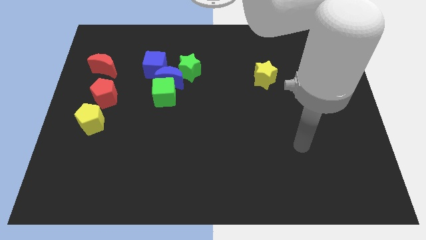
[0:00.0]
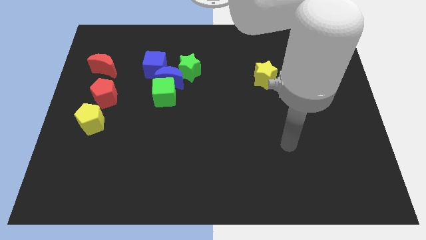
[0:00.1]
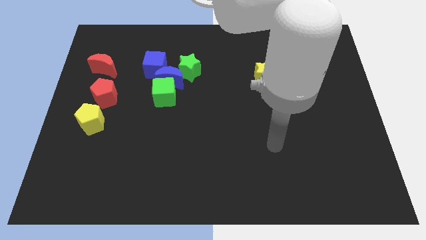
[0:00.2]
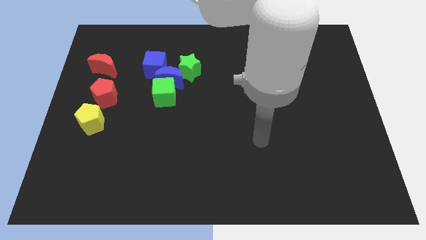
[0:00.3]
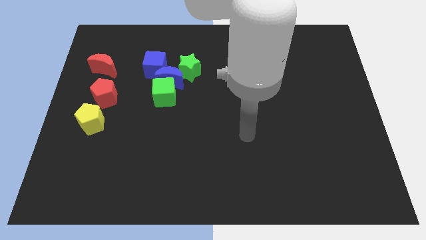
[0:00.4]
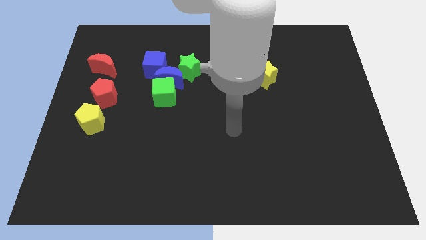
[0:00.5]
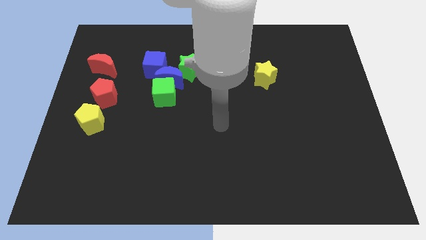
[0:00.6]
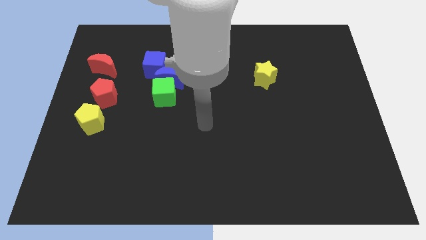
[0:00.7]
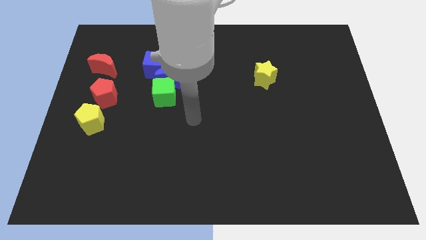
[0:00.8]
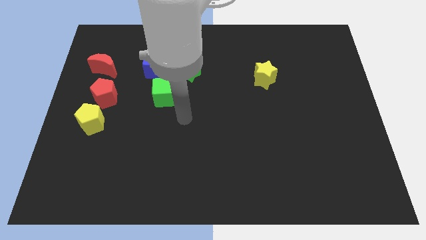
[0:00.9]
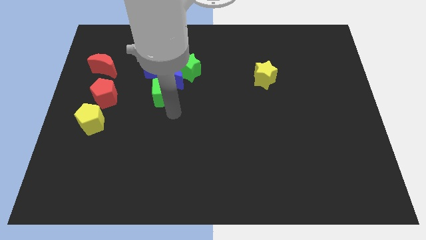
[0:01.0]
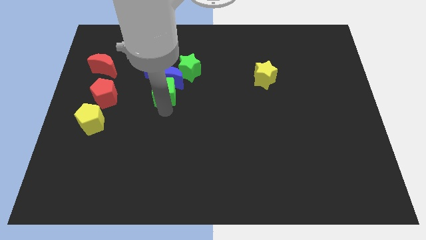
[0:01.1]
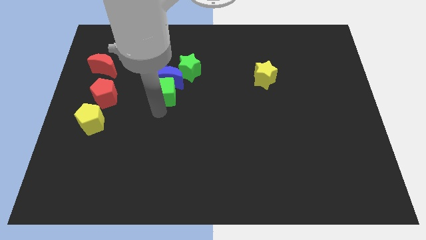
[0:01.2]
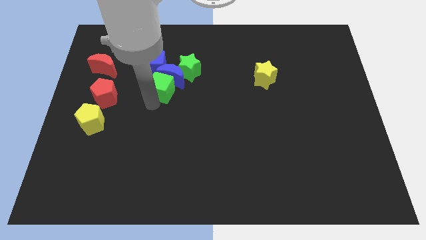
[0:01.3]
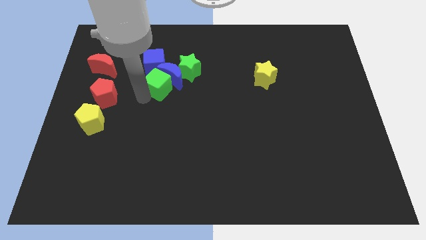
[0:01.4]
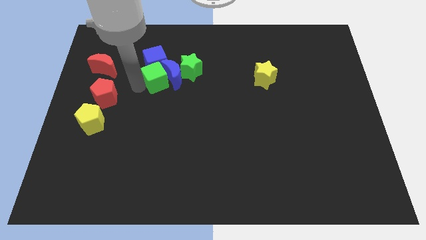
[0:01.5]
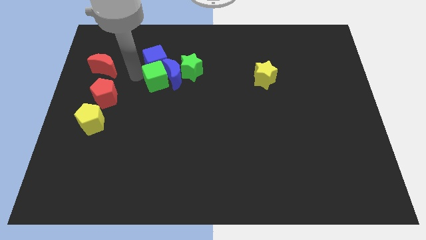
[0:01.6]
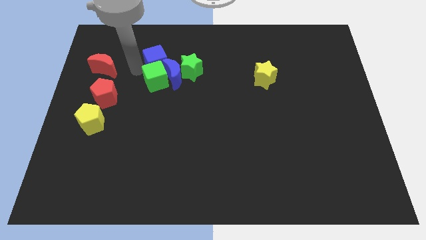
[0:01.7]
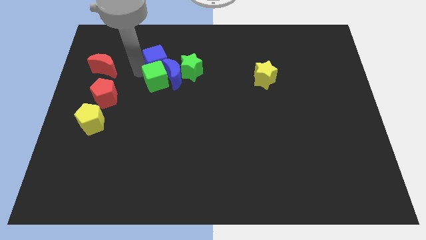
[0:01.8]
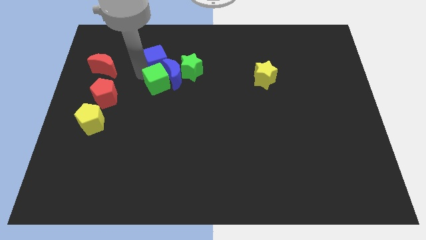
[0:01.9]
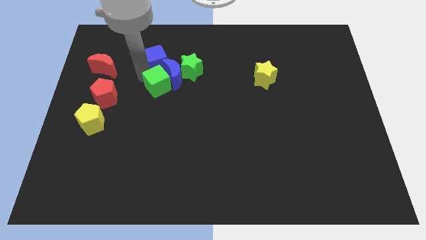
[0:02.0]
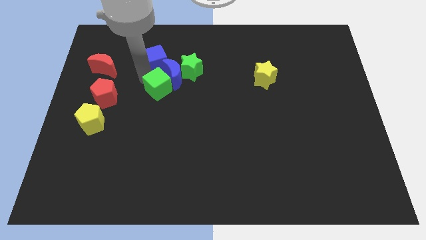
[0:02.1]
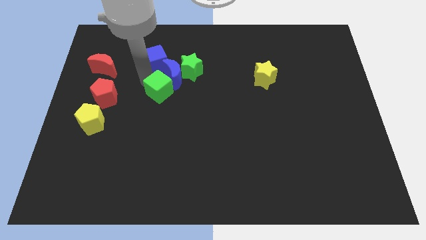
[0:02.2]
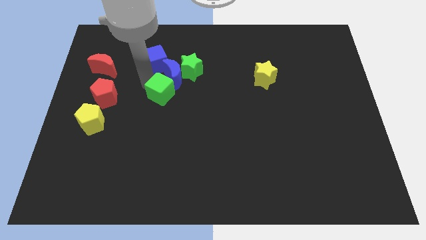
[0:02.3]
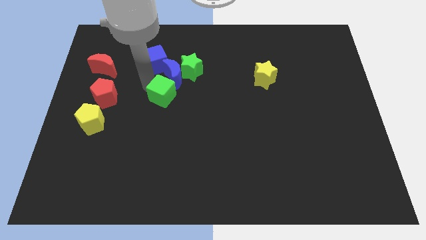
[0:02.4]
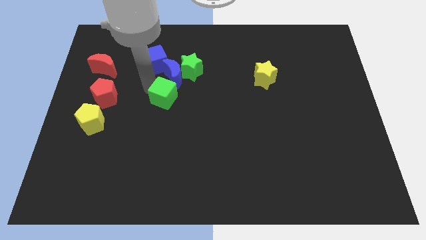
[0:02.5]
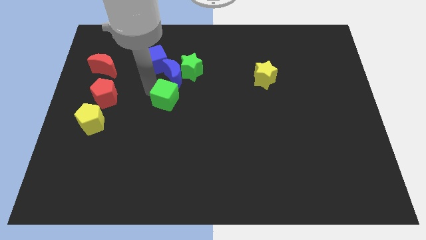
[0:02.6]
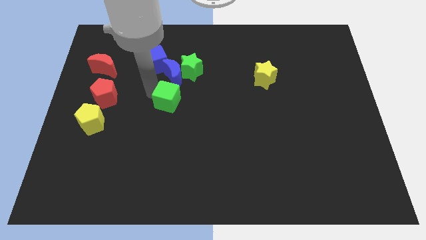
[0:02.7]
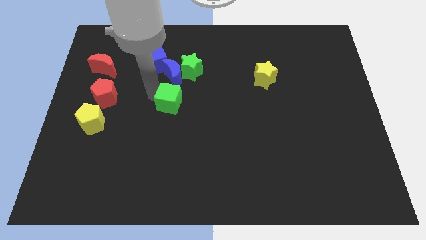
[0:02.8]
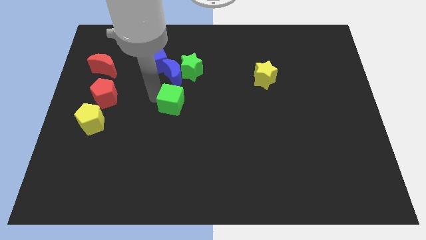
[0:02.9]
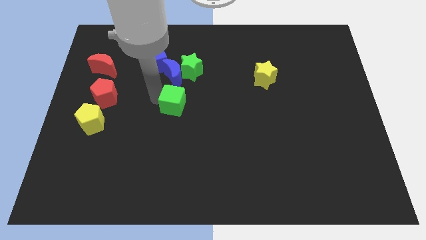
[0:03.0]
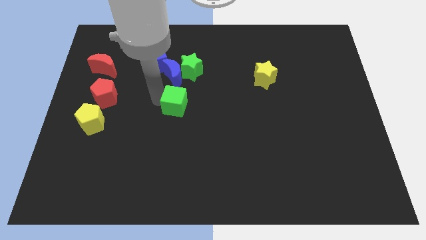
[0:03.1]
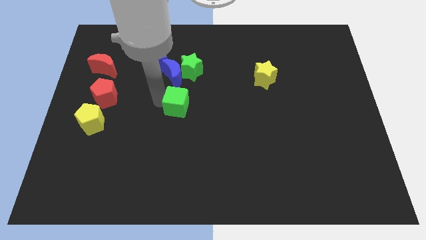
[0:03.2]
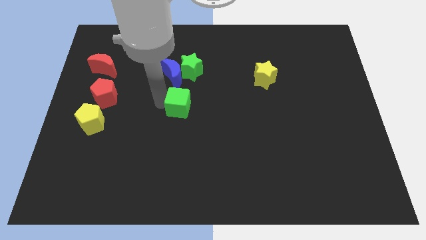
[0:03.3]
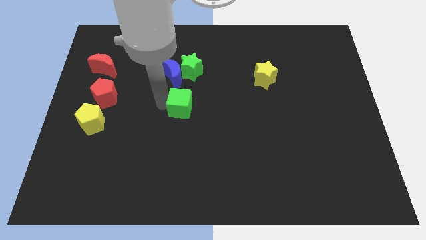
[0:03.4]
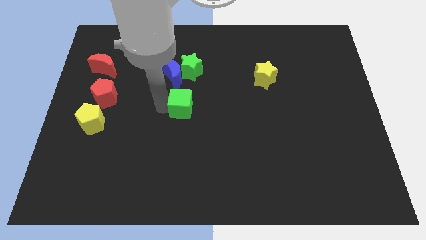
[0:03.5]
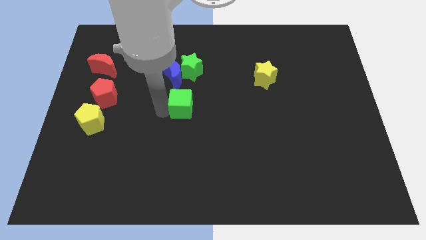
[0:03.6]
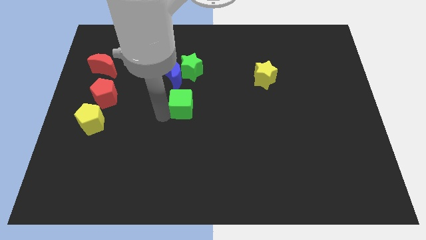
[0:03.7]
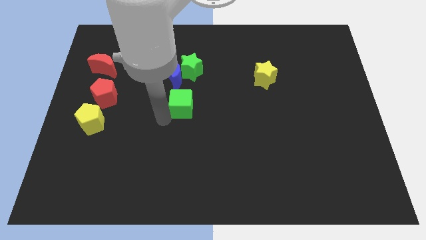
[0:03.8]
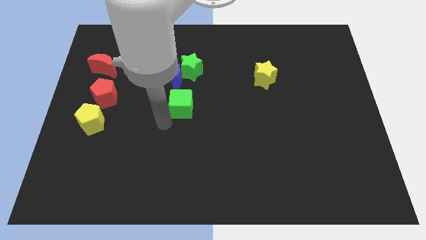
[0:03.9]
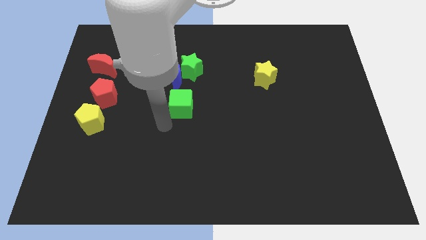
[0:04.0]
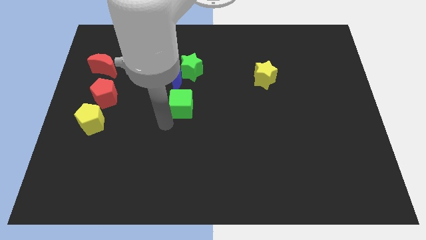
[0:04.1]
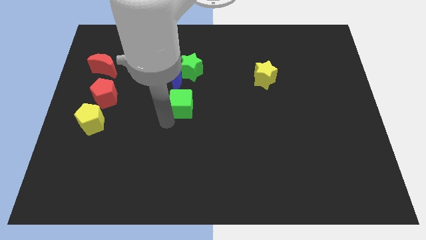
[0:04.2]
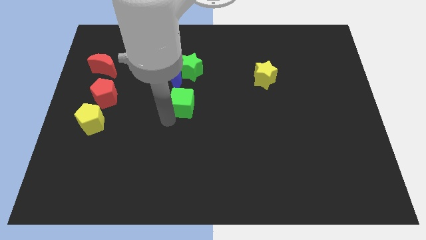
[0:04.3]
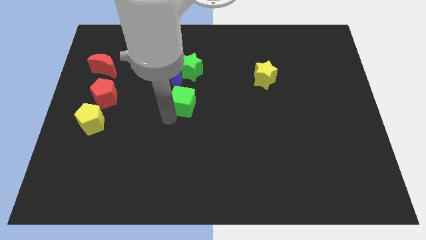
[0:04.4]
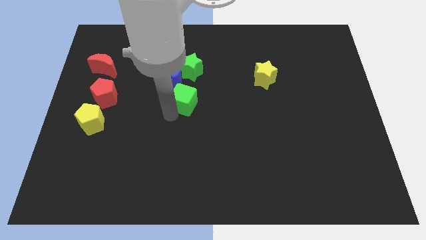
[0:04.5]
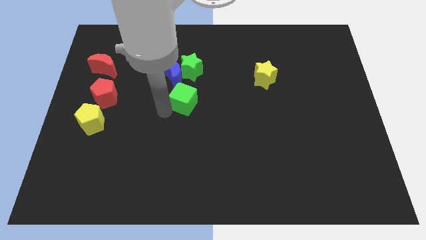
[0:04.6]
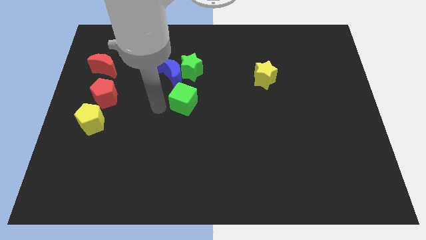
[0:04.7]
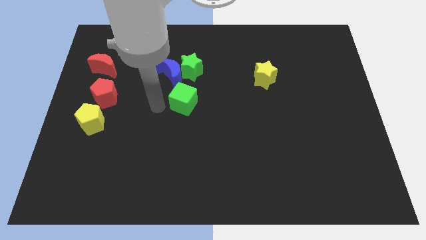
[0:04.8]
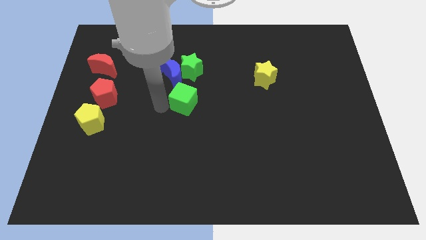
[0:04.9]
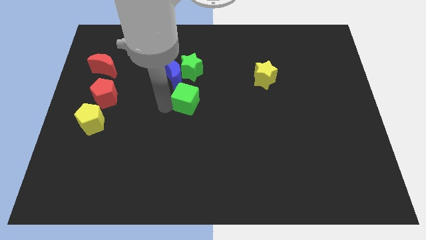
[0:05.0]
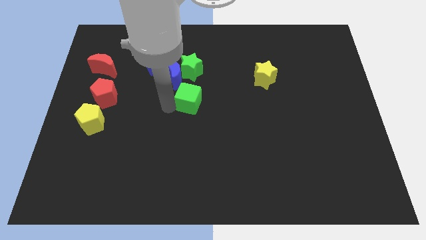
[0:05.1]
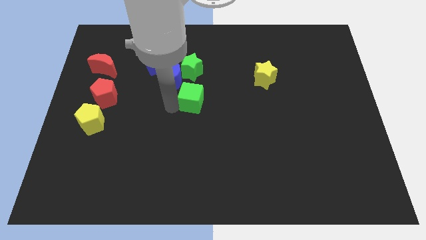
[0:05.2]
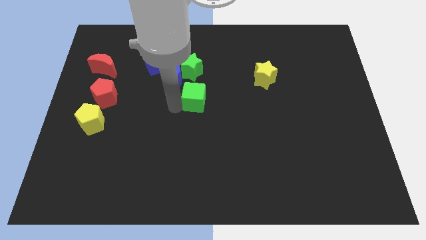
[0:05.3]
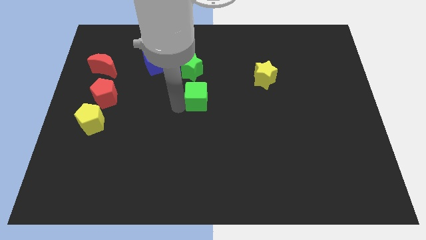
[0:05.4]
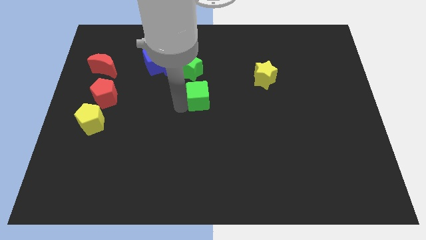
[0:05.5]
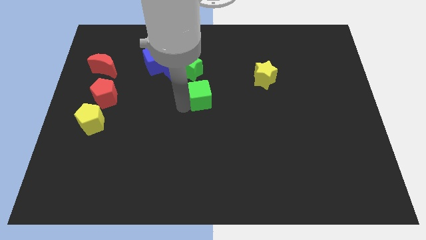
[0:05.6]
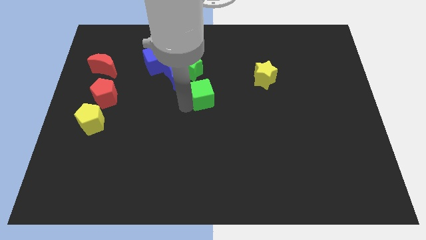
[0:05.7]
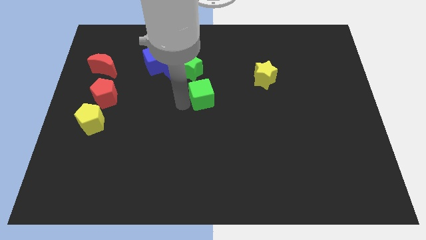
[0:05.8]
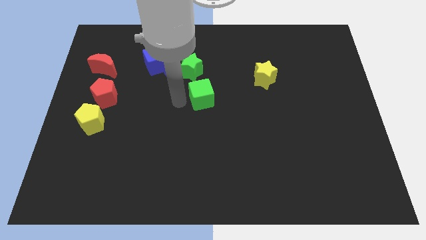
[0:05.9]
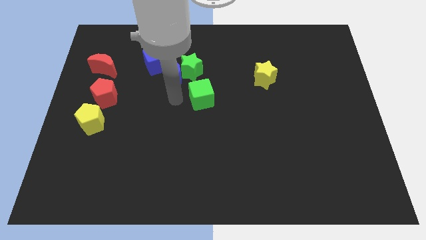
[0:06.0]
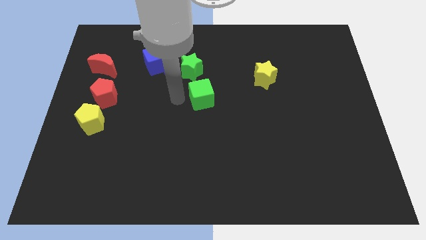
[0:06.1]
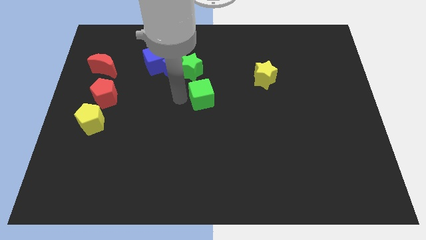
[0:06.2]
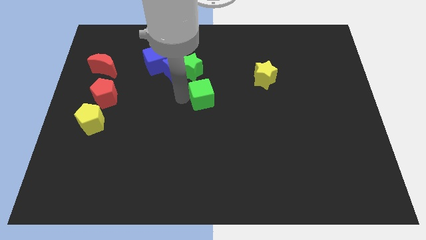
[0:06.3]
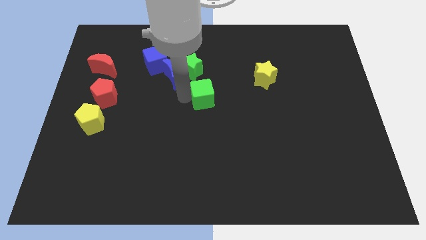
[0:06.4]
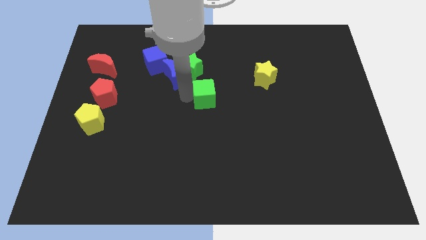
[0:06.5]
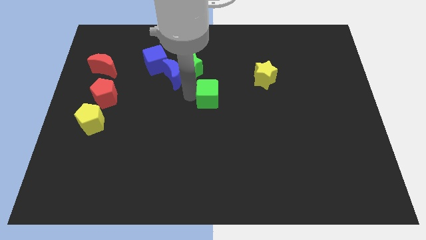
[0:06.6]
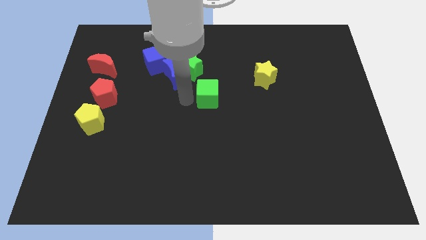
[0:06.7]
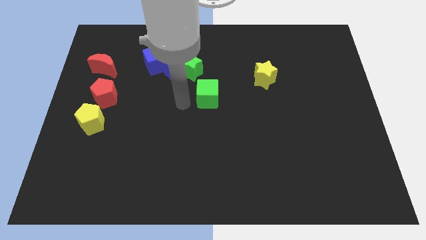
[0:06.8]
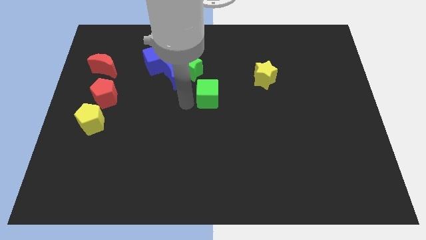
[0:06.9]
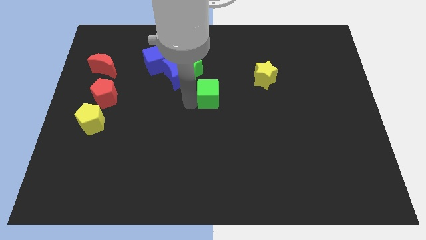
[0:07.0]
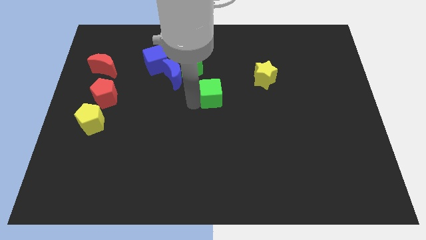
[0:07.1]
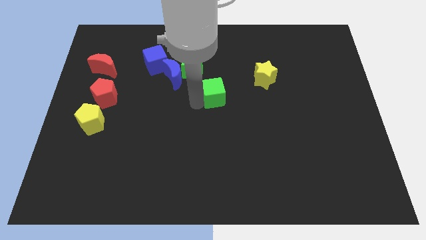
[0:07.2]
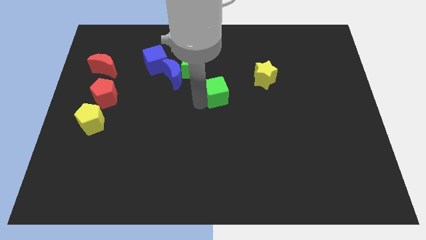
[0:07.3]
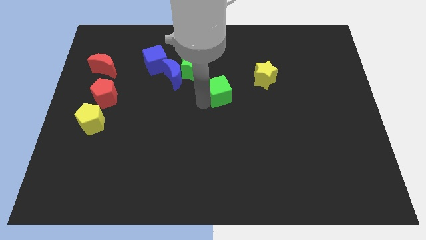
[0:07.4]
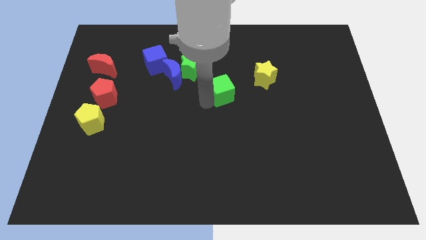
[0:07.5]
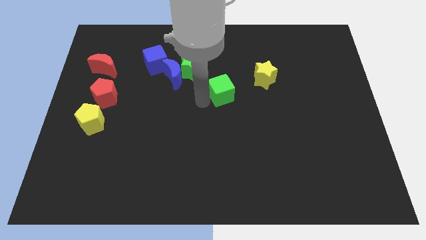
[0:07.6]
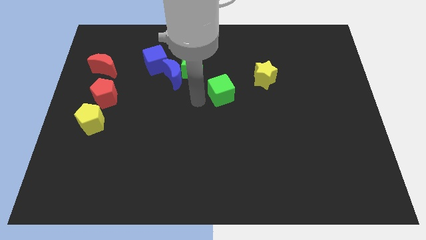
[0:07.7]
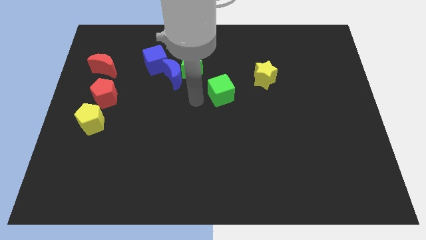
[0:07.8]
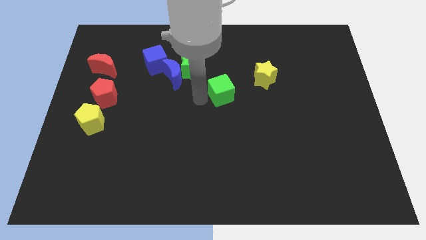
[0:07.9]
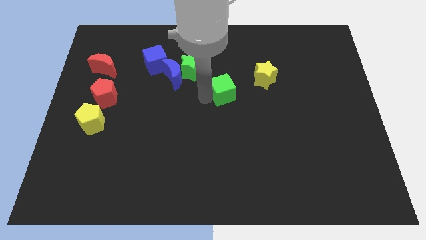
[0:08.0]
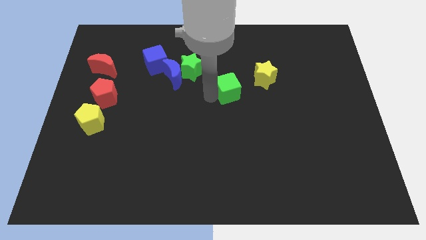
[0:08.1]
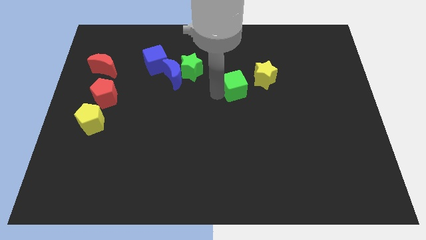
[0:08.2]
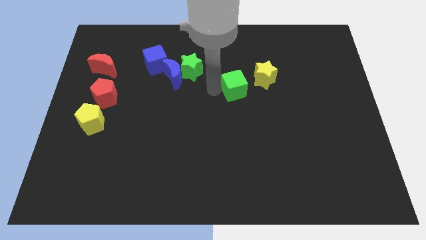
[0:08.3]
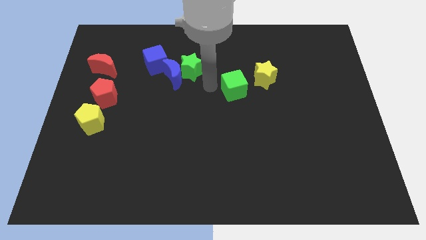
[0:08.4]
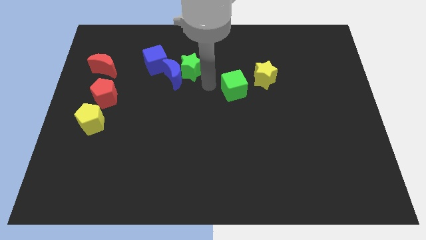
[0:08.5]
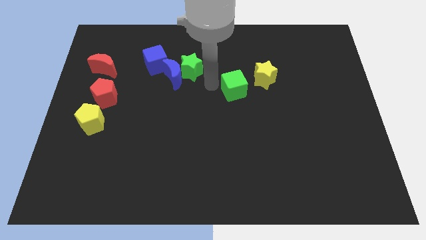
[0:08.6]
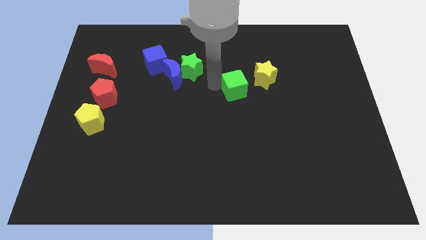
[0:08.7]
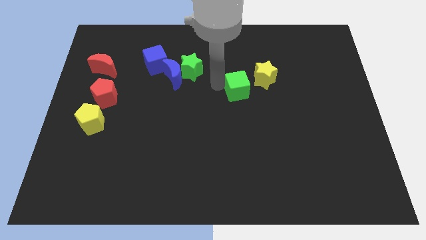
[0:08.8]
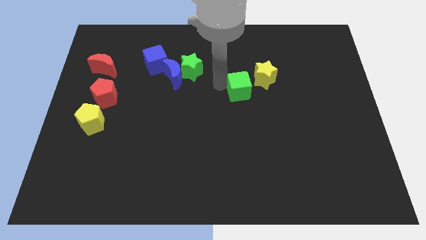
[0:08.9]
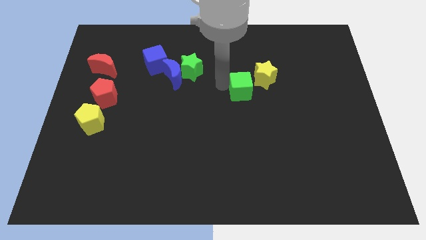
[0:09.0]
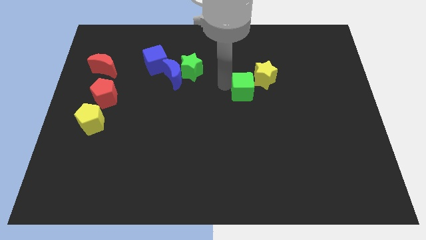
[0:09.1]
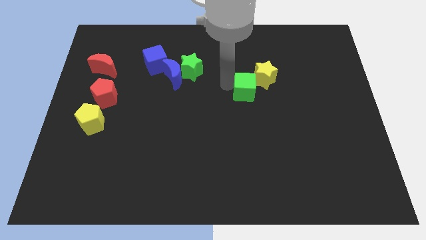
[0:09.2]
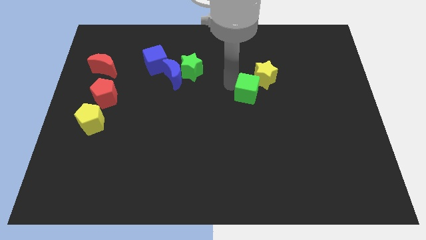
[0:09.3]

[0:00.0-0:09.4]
move the green cube right
